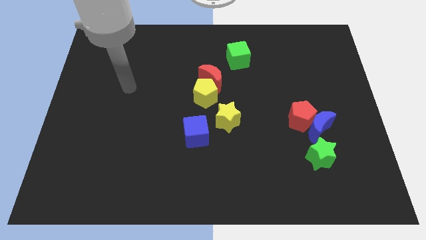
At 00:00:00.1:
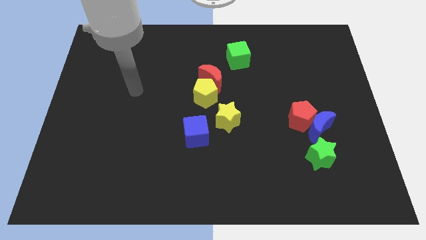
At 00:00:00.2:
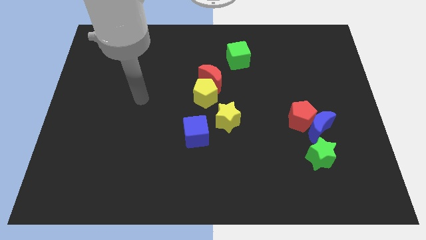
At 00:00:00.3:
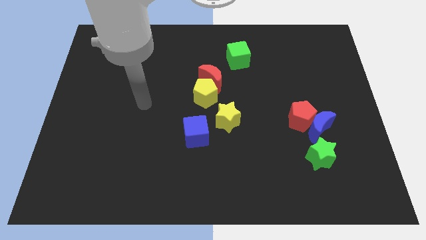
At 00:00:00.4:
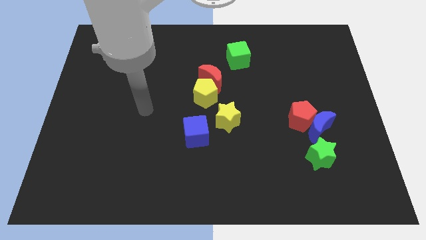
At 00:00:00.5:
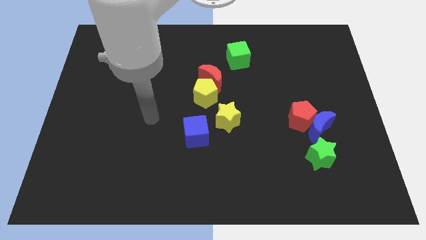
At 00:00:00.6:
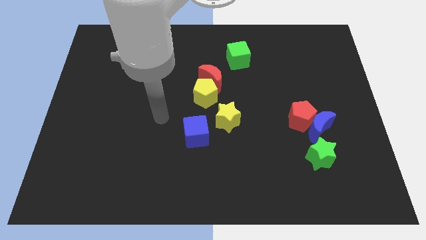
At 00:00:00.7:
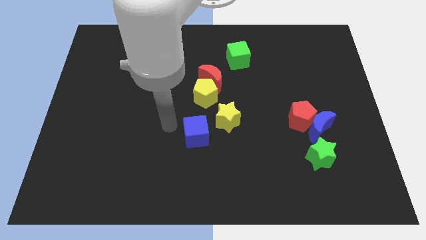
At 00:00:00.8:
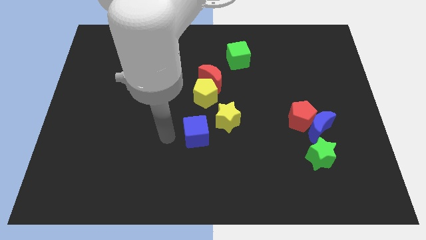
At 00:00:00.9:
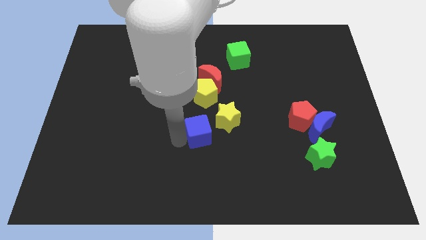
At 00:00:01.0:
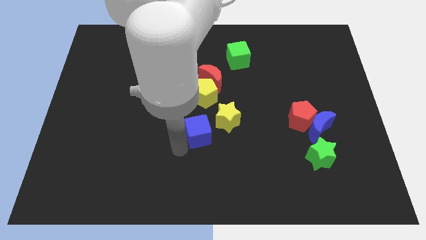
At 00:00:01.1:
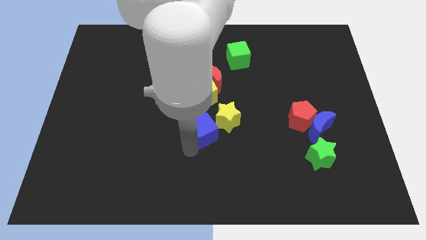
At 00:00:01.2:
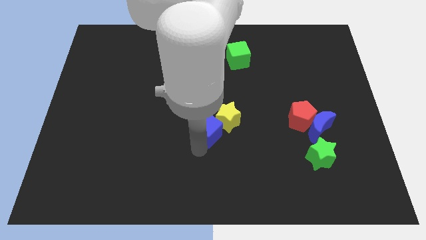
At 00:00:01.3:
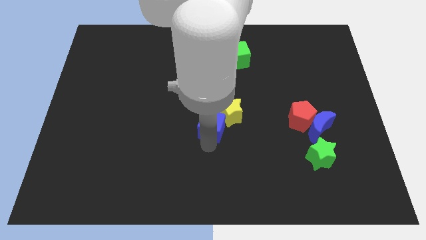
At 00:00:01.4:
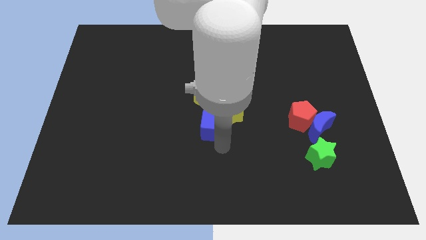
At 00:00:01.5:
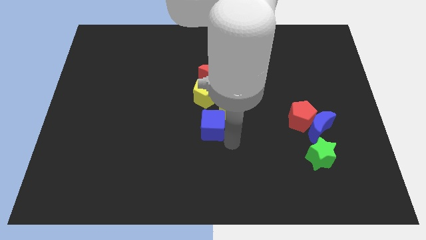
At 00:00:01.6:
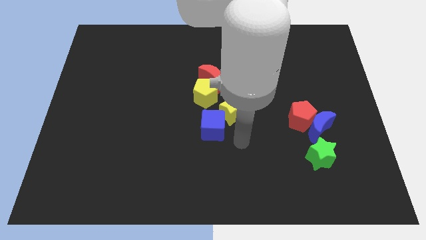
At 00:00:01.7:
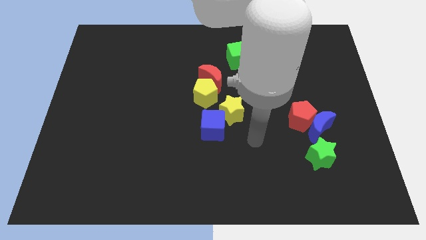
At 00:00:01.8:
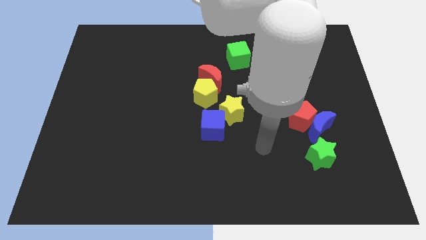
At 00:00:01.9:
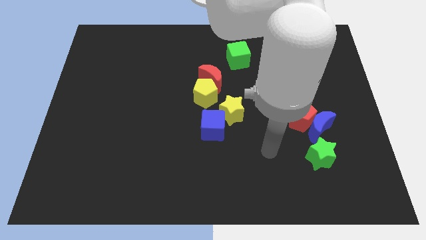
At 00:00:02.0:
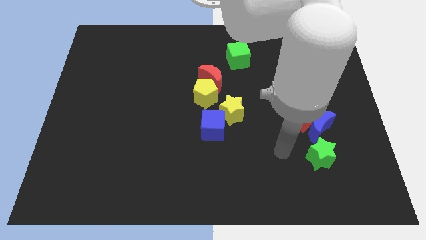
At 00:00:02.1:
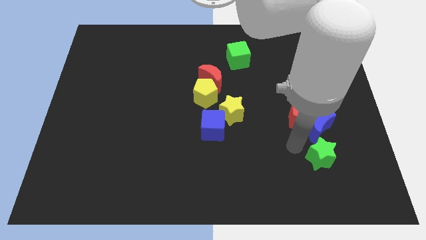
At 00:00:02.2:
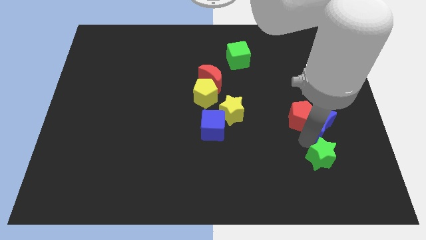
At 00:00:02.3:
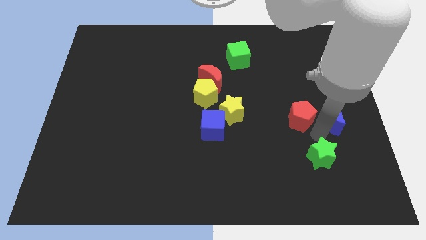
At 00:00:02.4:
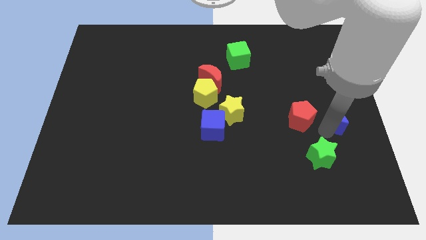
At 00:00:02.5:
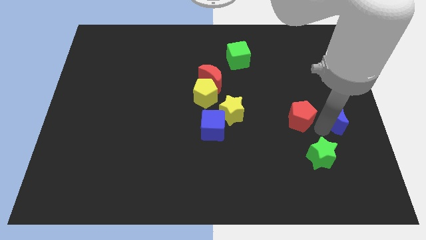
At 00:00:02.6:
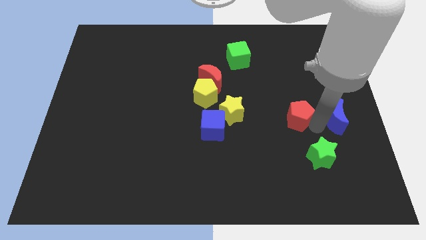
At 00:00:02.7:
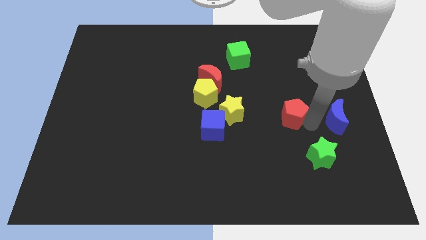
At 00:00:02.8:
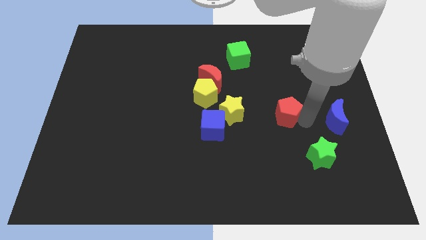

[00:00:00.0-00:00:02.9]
move the red pentagon away from the blue moon

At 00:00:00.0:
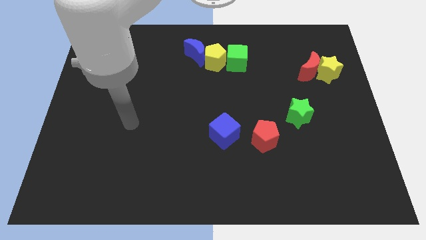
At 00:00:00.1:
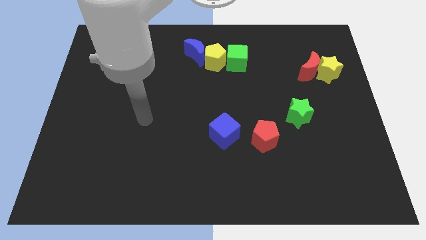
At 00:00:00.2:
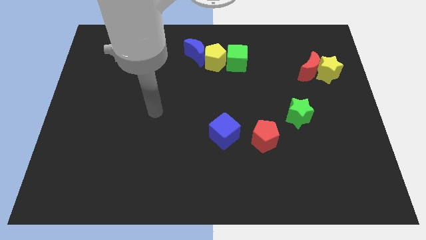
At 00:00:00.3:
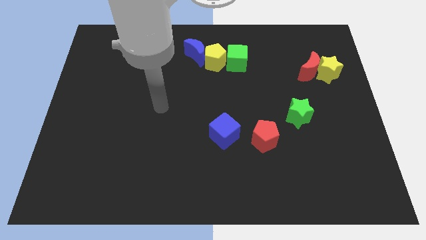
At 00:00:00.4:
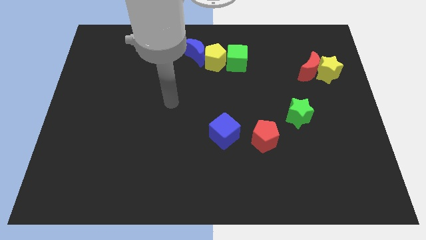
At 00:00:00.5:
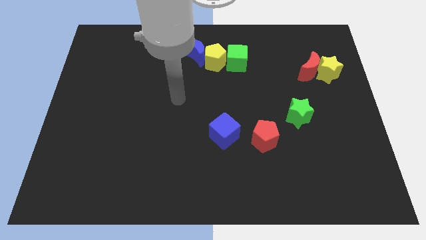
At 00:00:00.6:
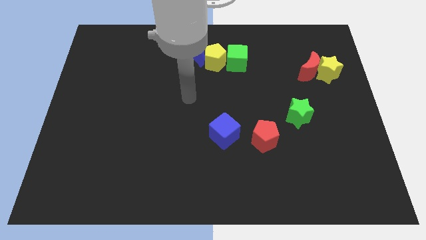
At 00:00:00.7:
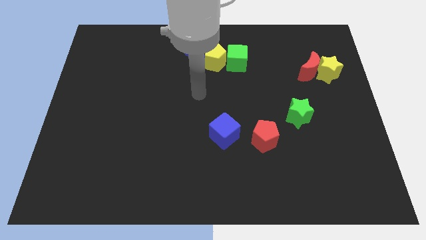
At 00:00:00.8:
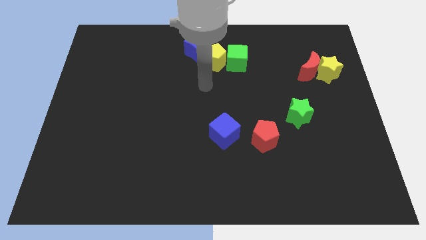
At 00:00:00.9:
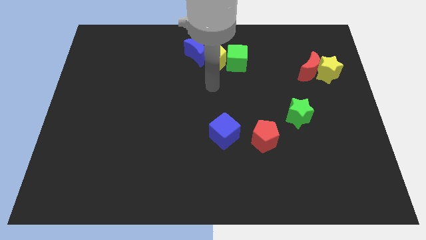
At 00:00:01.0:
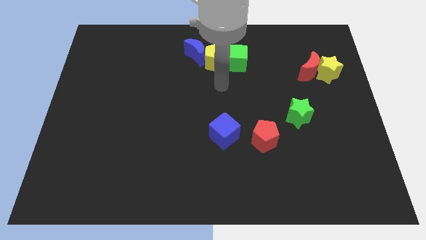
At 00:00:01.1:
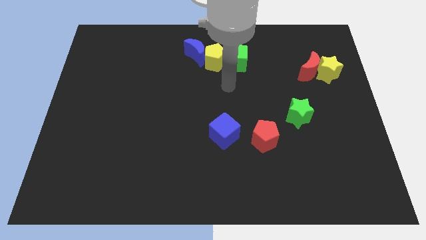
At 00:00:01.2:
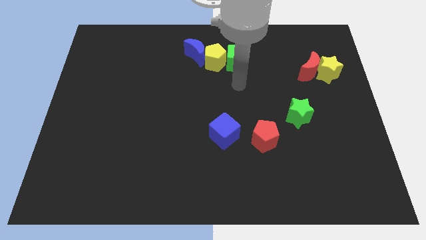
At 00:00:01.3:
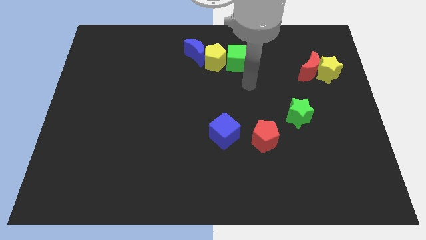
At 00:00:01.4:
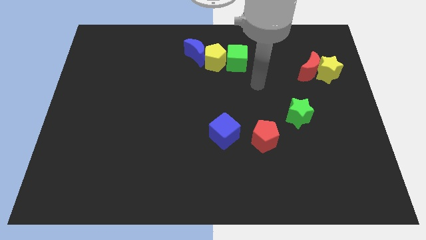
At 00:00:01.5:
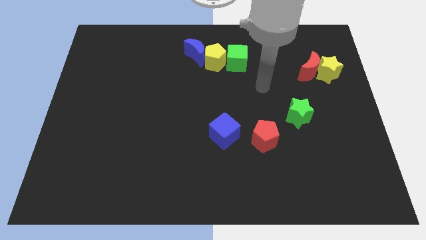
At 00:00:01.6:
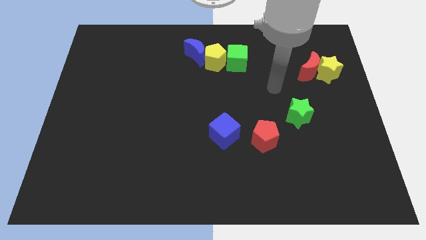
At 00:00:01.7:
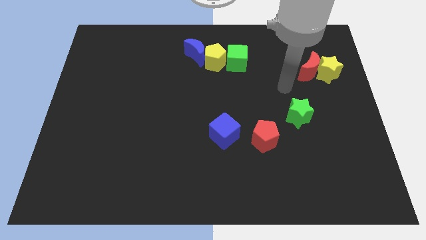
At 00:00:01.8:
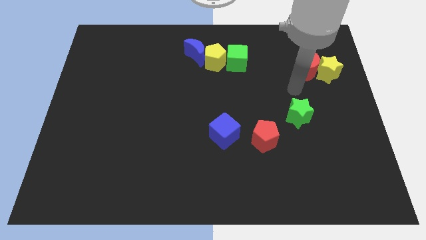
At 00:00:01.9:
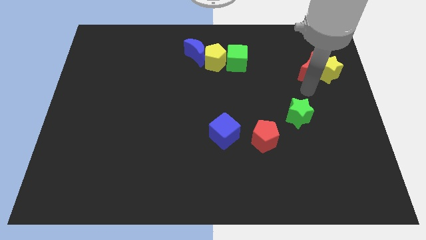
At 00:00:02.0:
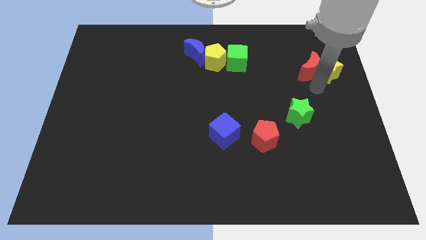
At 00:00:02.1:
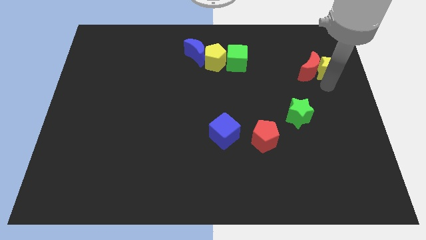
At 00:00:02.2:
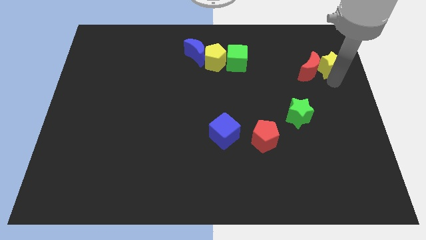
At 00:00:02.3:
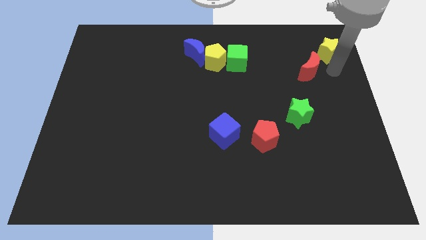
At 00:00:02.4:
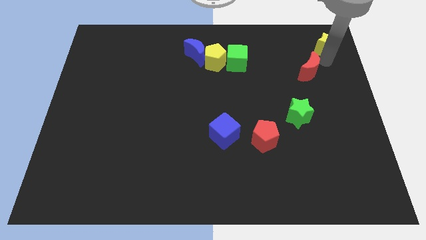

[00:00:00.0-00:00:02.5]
pull the red moon apart from the yellow star

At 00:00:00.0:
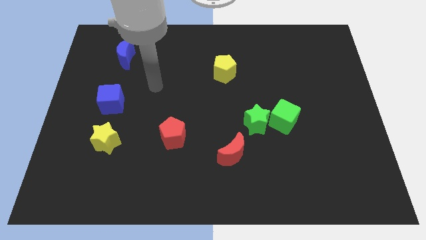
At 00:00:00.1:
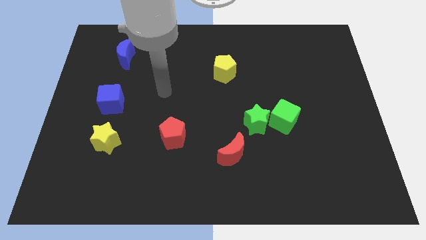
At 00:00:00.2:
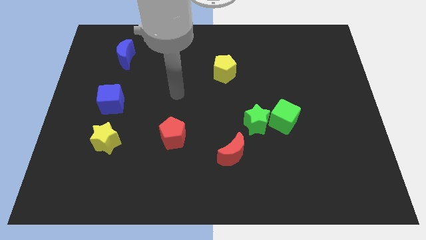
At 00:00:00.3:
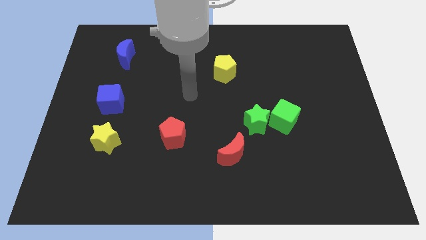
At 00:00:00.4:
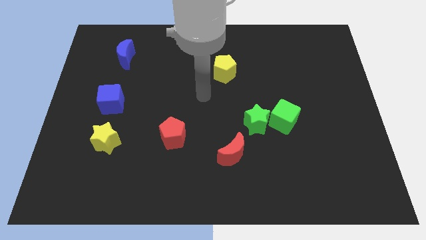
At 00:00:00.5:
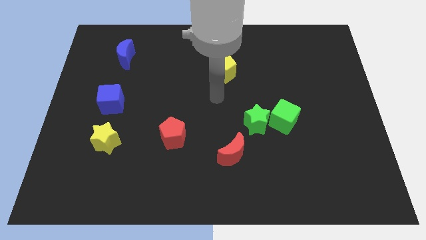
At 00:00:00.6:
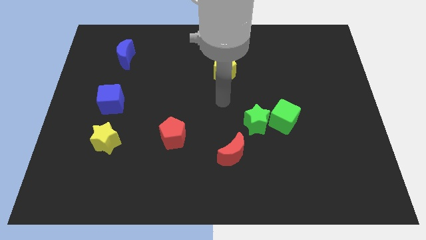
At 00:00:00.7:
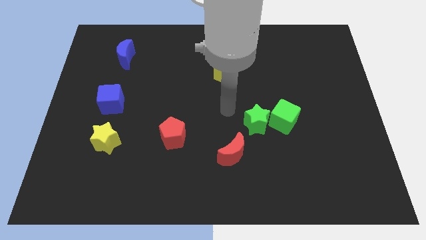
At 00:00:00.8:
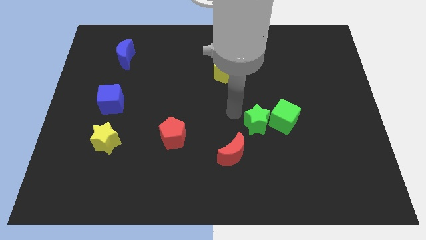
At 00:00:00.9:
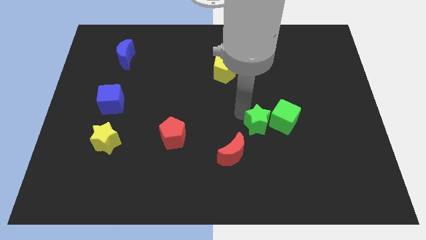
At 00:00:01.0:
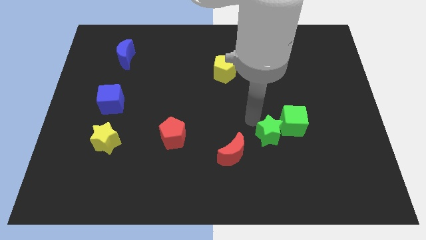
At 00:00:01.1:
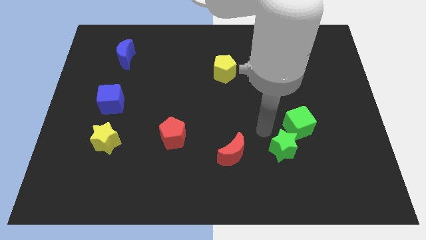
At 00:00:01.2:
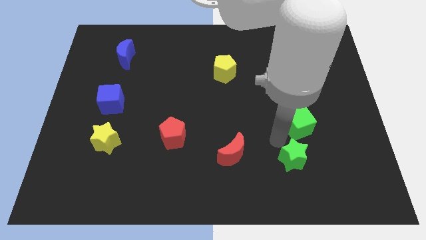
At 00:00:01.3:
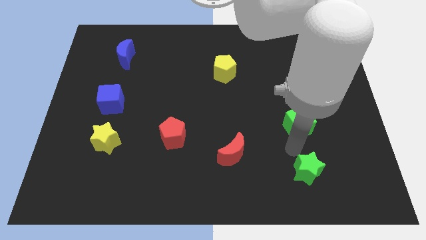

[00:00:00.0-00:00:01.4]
move the green cube away from the green star

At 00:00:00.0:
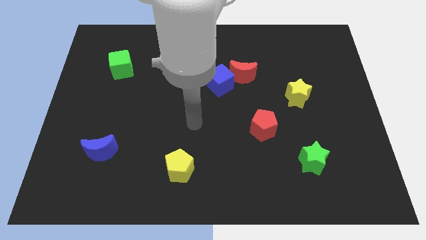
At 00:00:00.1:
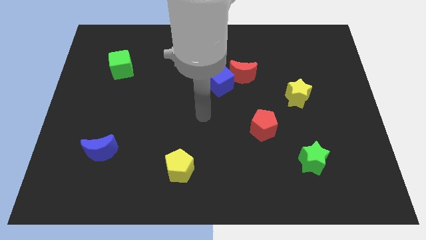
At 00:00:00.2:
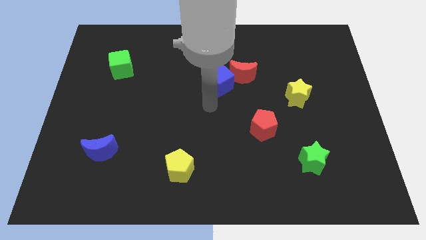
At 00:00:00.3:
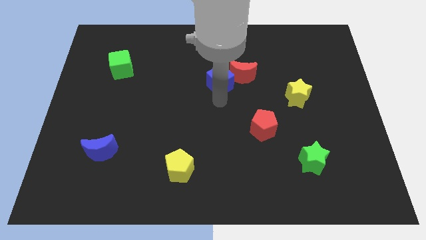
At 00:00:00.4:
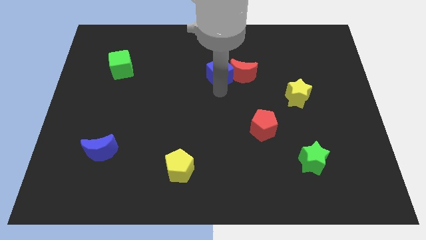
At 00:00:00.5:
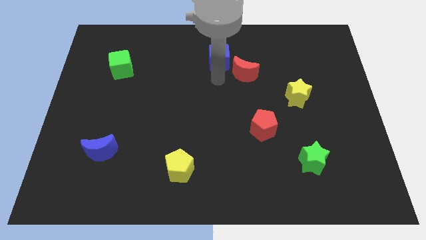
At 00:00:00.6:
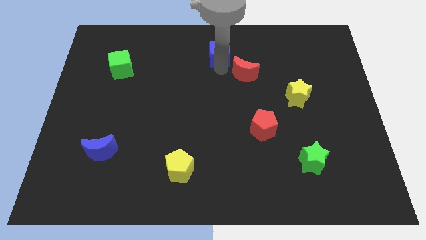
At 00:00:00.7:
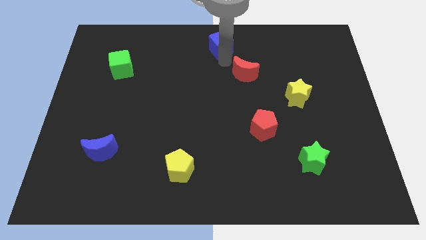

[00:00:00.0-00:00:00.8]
pull the red moon apart from the blue cube

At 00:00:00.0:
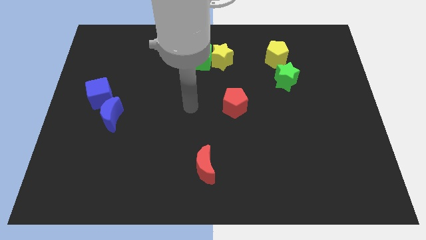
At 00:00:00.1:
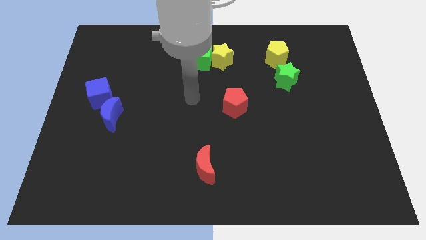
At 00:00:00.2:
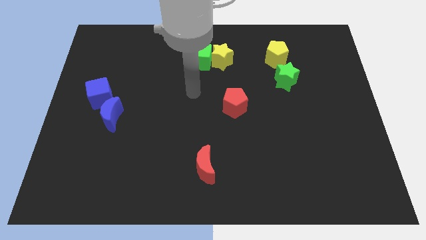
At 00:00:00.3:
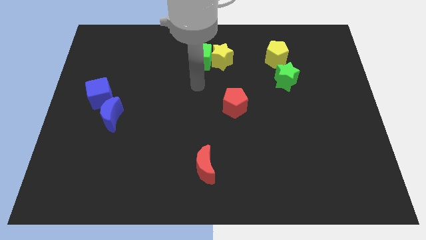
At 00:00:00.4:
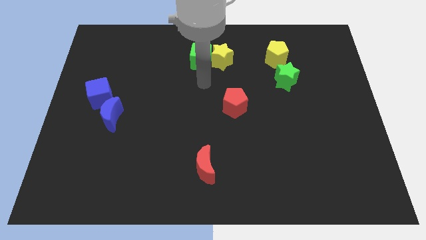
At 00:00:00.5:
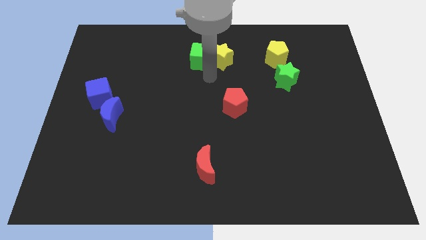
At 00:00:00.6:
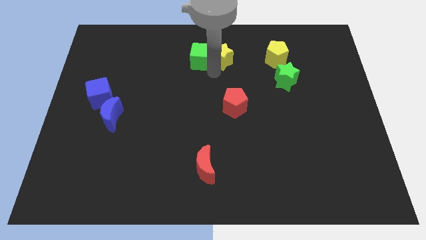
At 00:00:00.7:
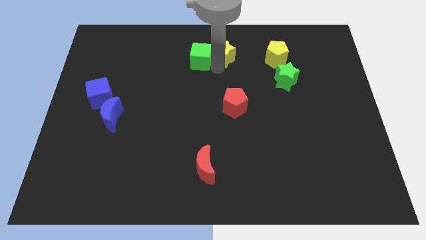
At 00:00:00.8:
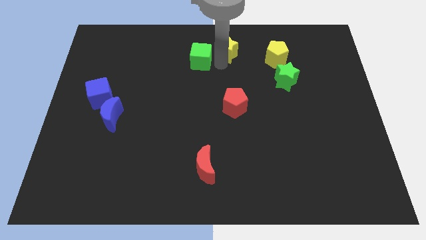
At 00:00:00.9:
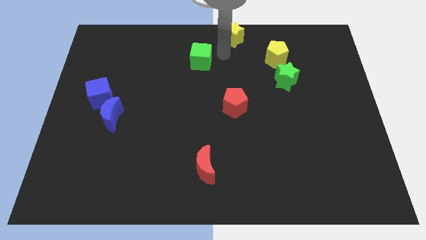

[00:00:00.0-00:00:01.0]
separate the green cube from the yellow star

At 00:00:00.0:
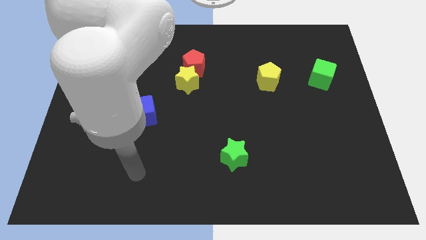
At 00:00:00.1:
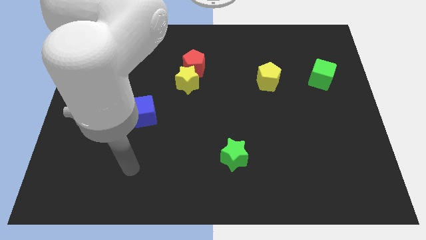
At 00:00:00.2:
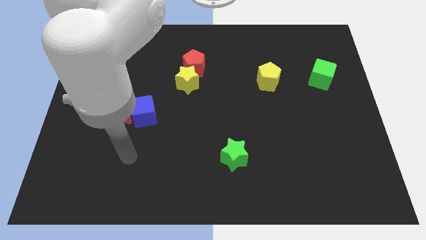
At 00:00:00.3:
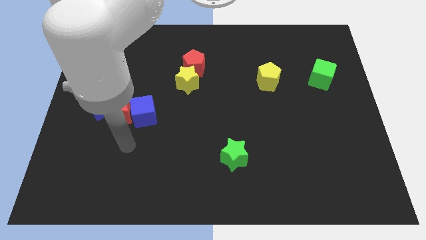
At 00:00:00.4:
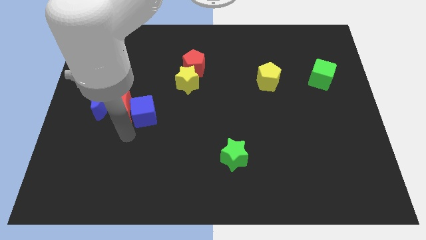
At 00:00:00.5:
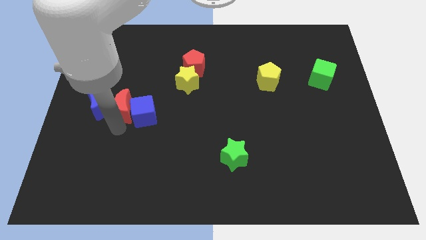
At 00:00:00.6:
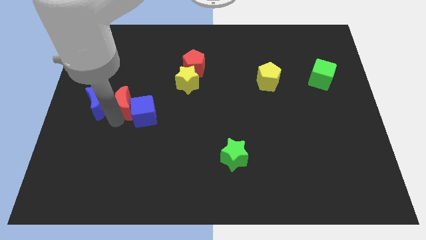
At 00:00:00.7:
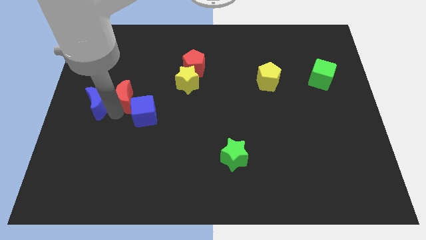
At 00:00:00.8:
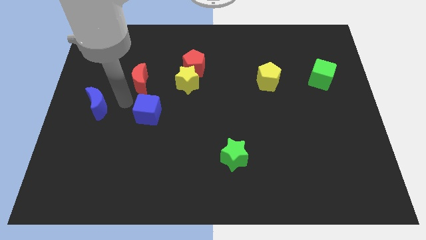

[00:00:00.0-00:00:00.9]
separate the blue cube from the red moon
